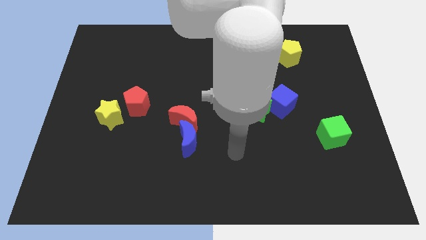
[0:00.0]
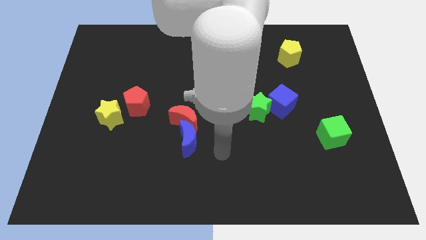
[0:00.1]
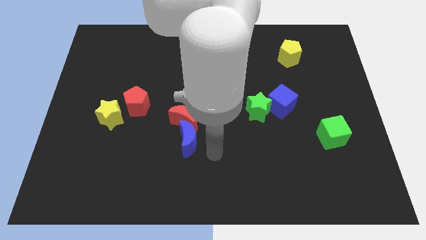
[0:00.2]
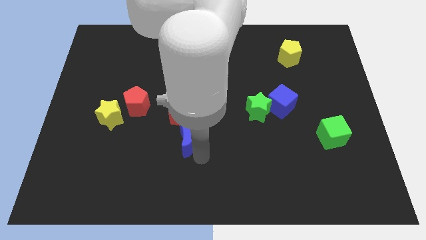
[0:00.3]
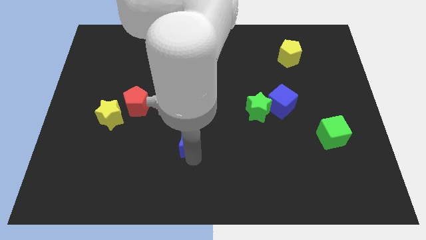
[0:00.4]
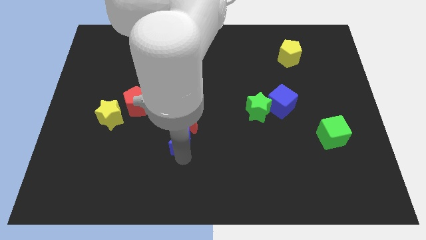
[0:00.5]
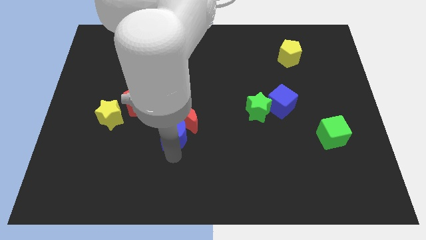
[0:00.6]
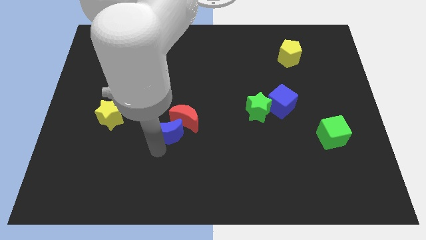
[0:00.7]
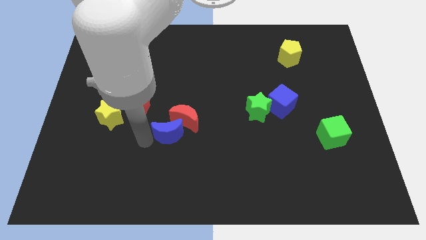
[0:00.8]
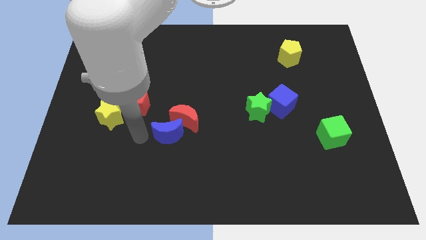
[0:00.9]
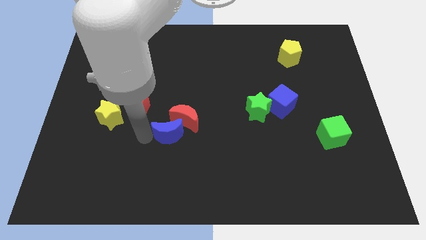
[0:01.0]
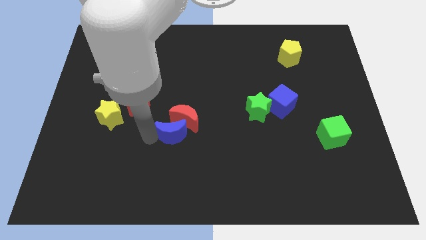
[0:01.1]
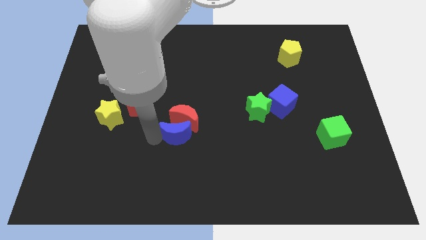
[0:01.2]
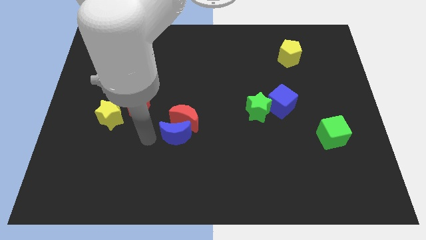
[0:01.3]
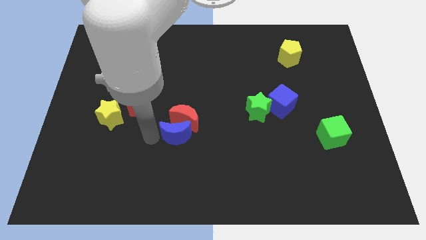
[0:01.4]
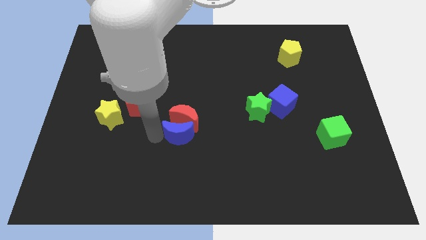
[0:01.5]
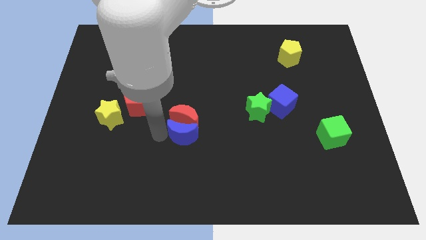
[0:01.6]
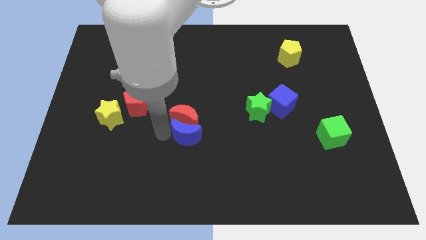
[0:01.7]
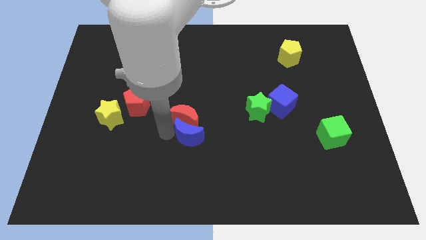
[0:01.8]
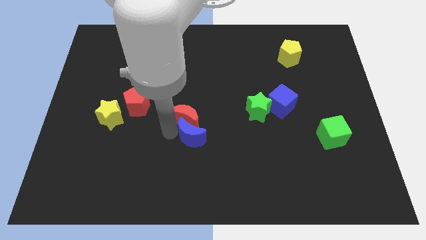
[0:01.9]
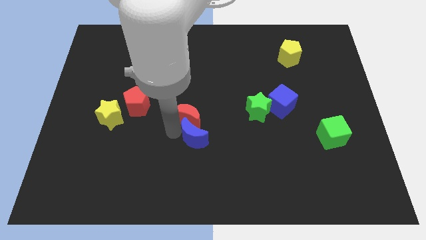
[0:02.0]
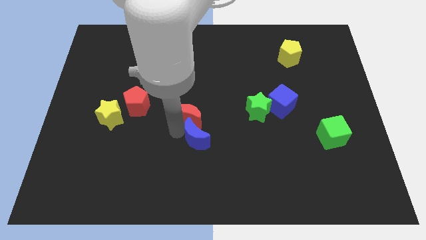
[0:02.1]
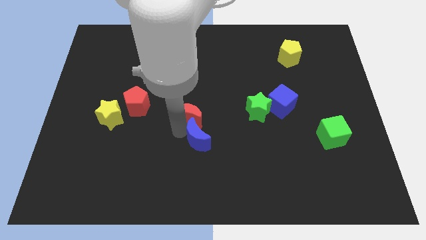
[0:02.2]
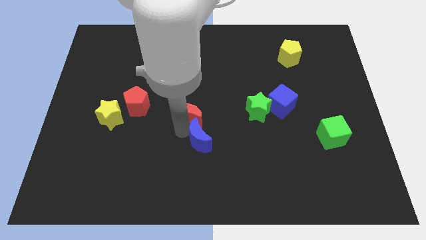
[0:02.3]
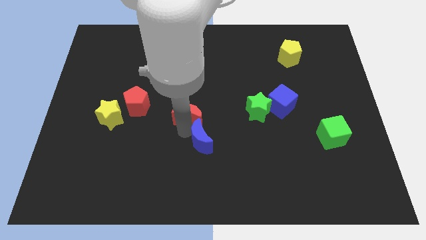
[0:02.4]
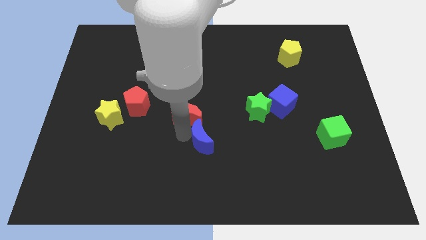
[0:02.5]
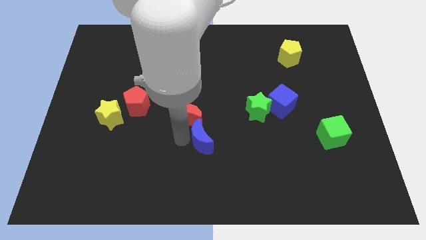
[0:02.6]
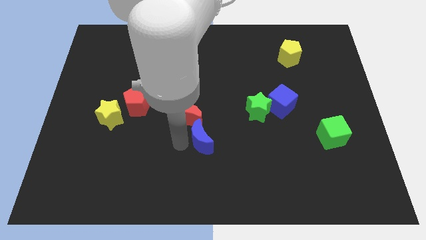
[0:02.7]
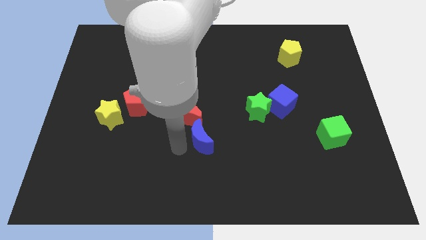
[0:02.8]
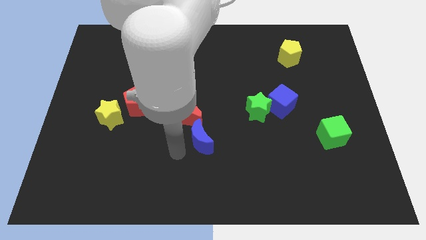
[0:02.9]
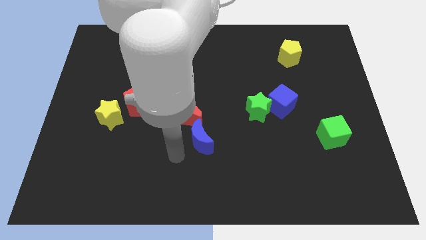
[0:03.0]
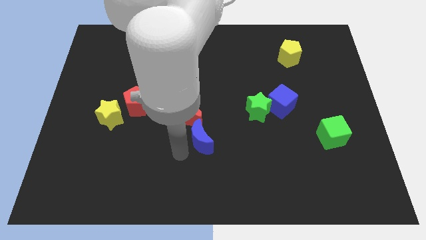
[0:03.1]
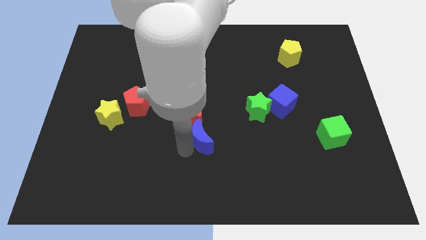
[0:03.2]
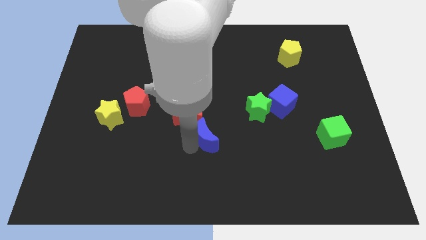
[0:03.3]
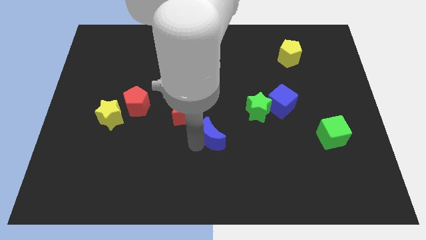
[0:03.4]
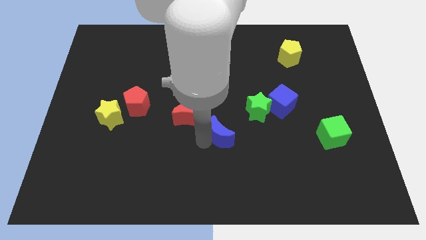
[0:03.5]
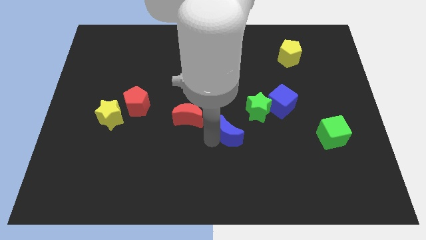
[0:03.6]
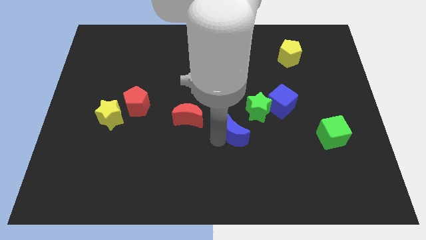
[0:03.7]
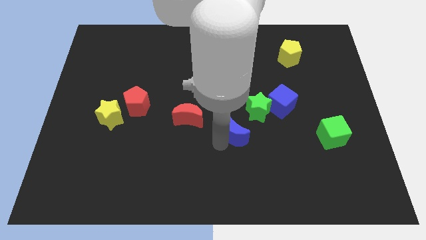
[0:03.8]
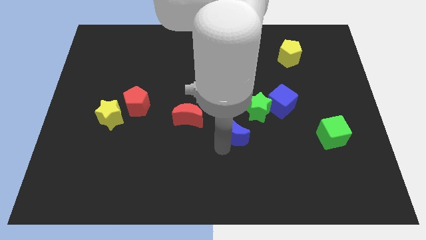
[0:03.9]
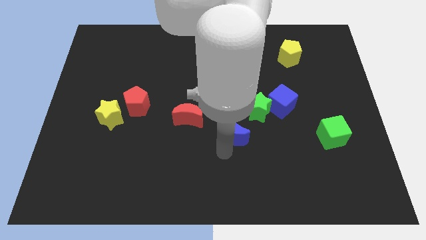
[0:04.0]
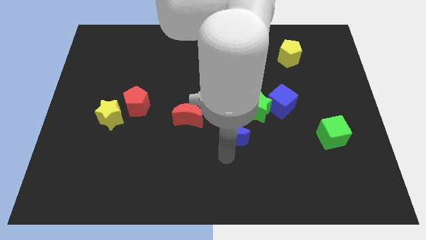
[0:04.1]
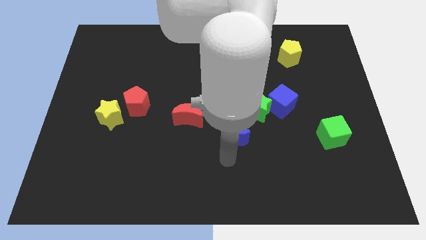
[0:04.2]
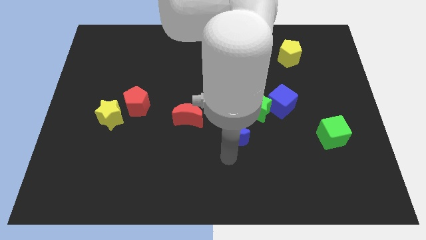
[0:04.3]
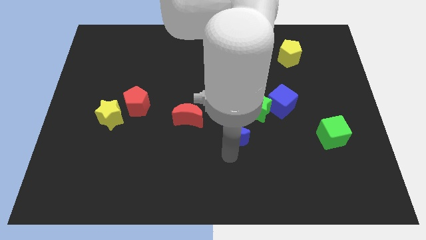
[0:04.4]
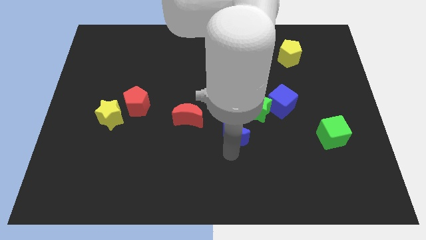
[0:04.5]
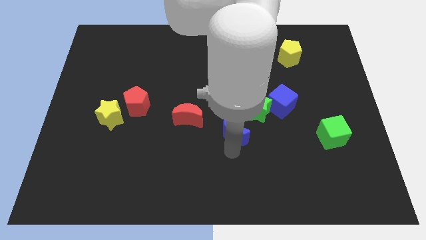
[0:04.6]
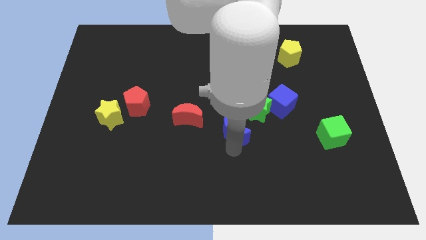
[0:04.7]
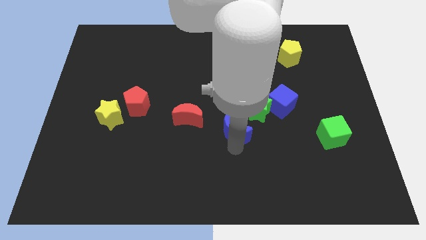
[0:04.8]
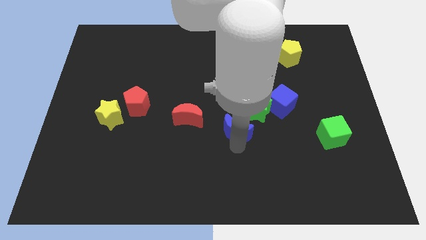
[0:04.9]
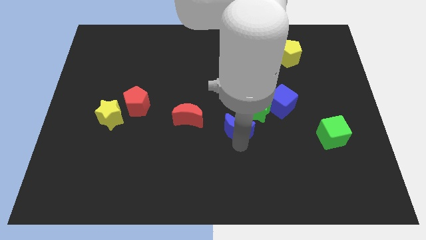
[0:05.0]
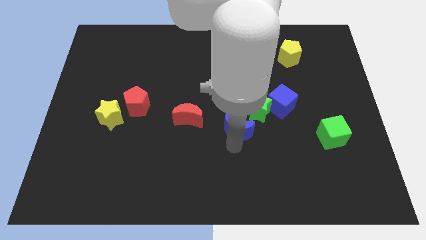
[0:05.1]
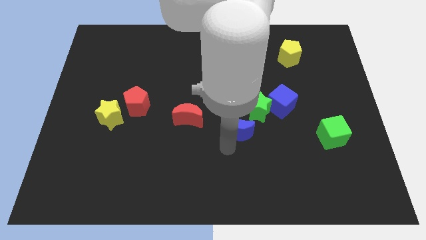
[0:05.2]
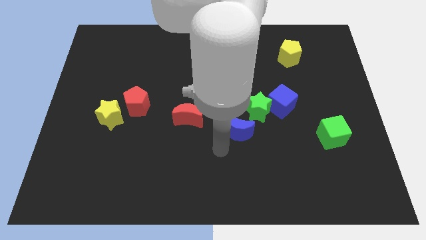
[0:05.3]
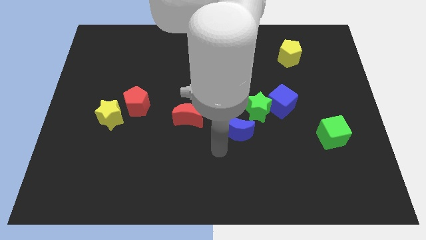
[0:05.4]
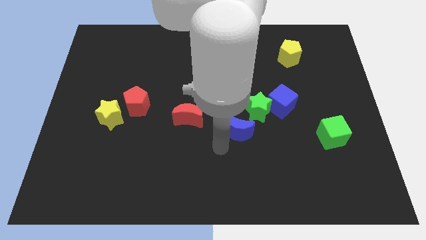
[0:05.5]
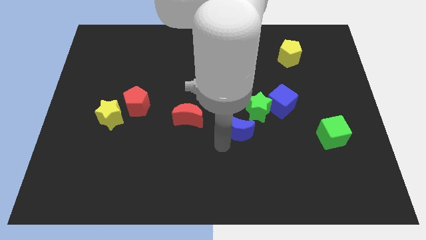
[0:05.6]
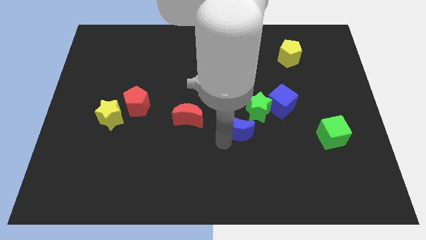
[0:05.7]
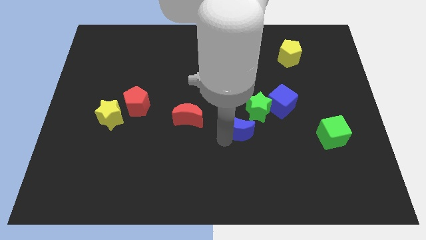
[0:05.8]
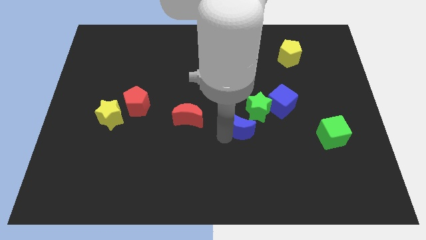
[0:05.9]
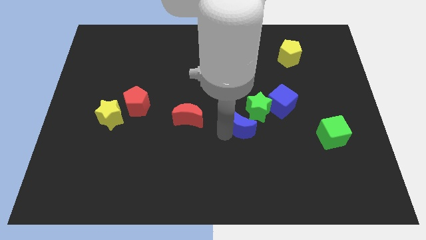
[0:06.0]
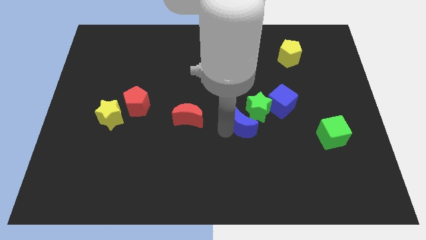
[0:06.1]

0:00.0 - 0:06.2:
push the blue moon towards the green star
